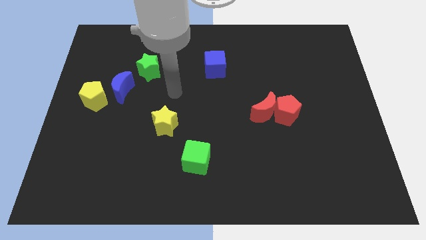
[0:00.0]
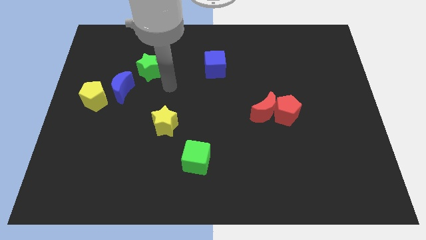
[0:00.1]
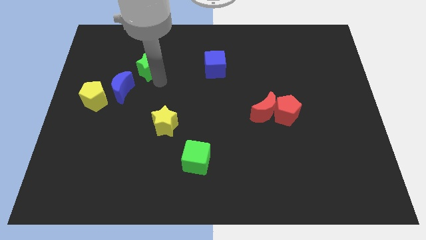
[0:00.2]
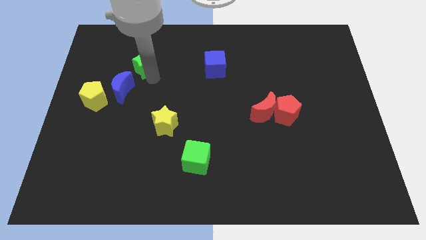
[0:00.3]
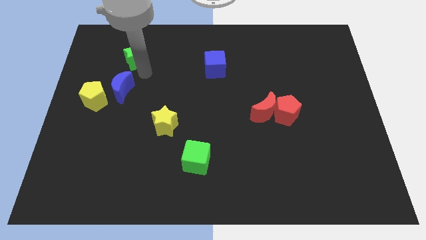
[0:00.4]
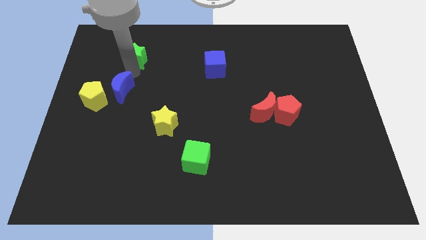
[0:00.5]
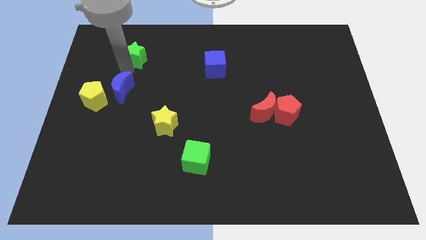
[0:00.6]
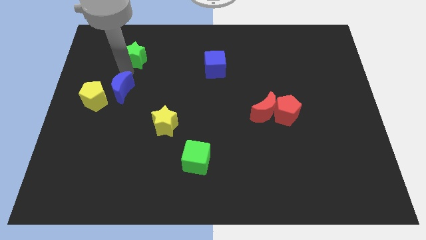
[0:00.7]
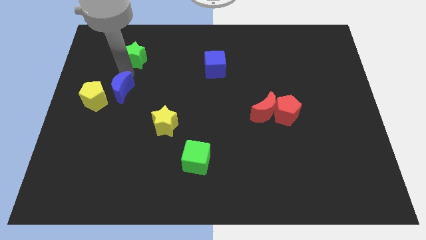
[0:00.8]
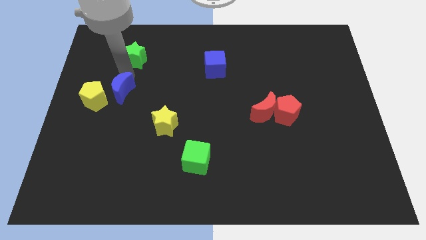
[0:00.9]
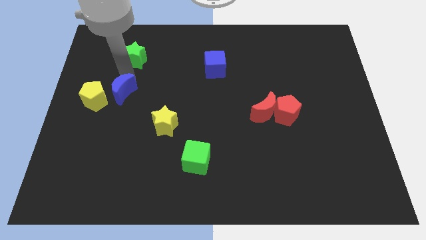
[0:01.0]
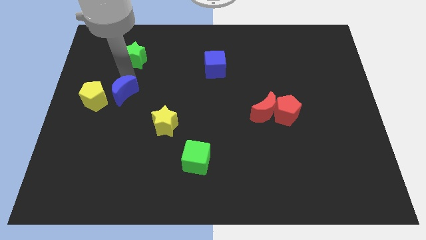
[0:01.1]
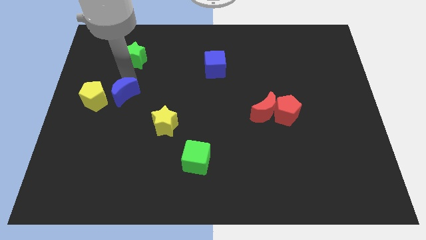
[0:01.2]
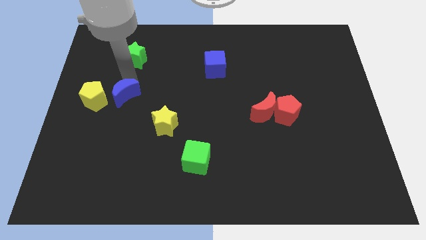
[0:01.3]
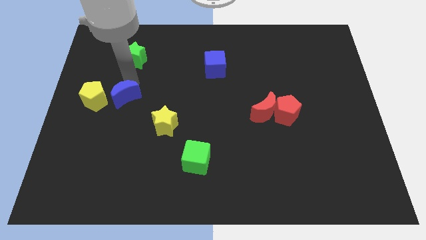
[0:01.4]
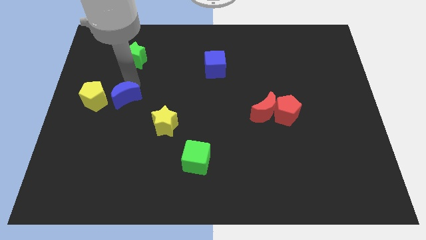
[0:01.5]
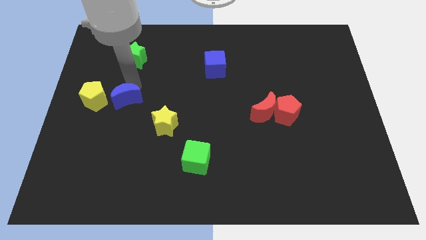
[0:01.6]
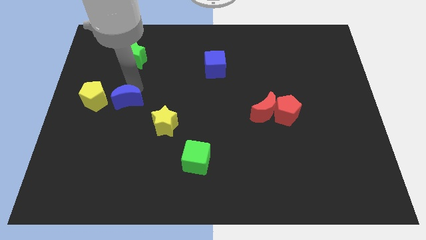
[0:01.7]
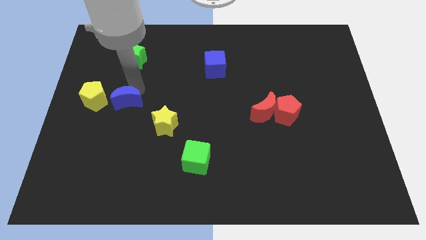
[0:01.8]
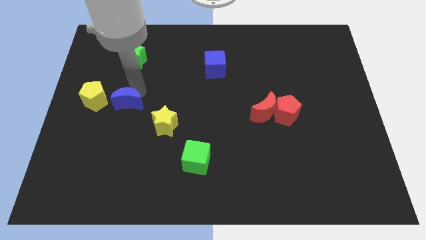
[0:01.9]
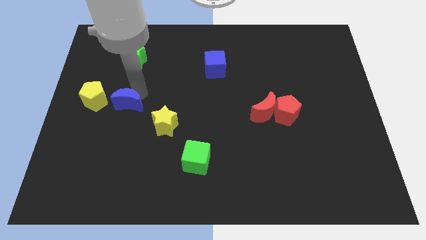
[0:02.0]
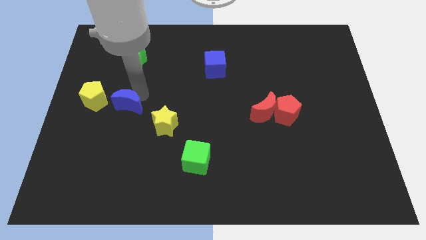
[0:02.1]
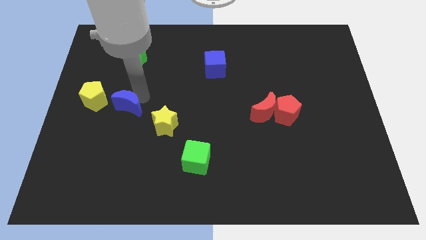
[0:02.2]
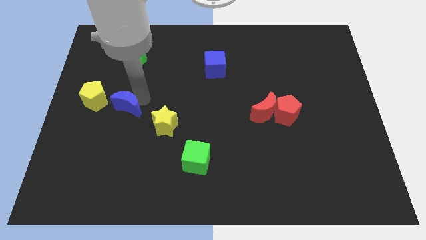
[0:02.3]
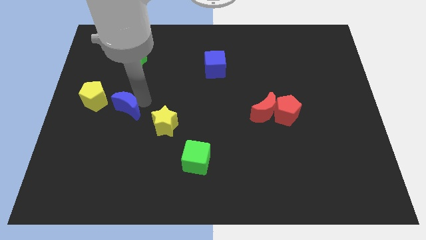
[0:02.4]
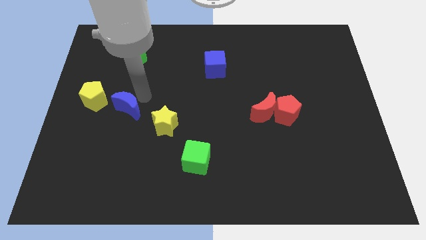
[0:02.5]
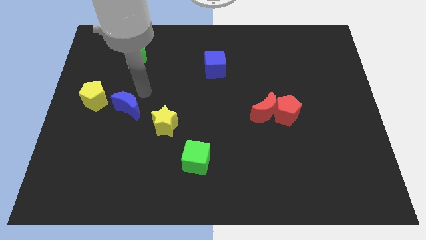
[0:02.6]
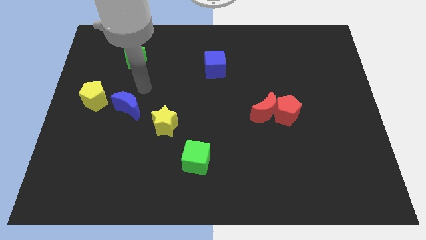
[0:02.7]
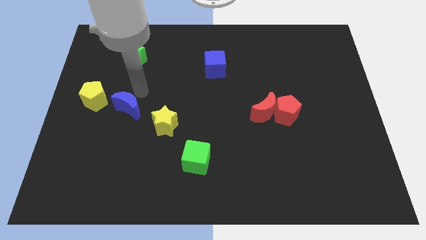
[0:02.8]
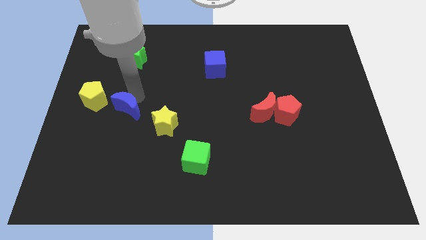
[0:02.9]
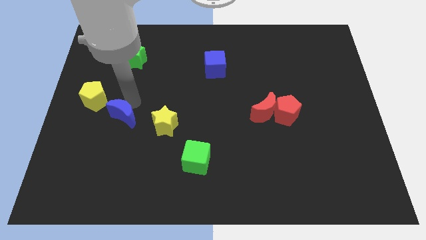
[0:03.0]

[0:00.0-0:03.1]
push the blue moon downwards a bit

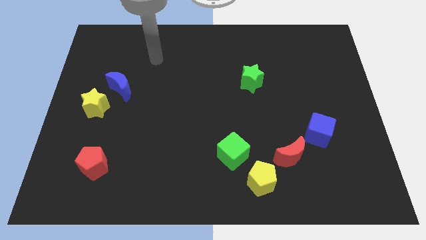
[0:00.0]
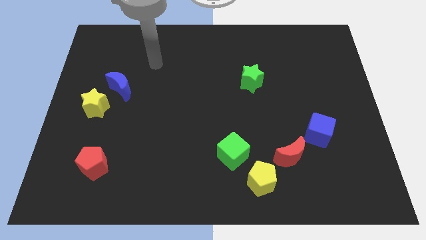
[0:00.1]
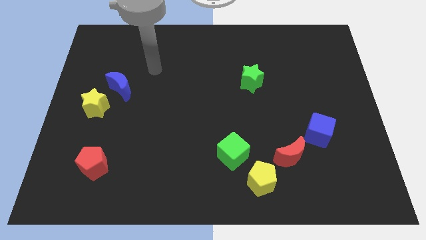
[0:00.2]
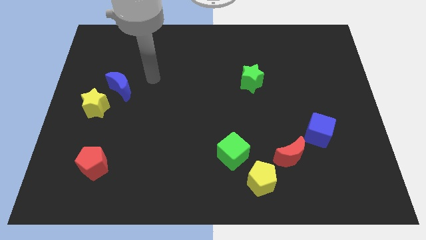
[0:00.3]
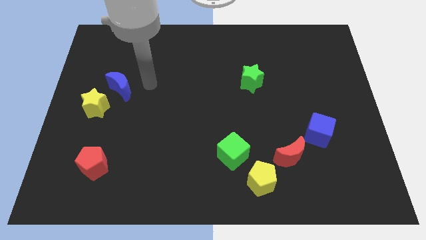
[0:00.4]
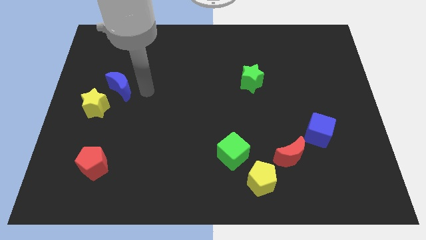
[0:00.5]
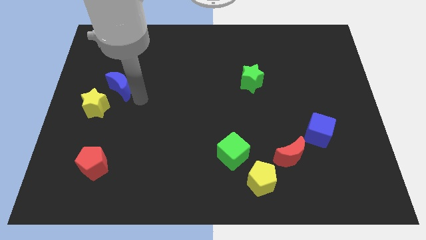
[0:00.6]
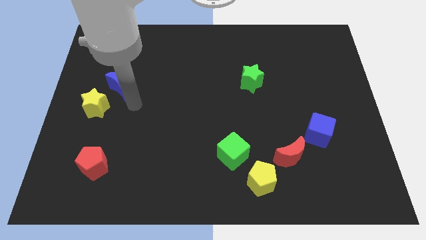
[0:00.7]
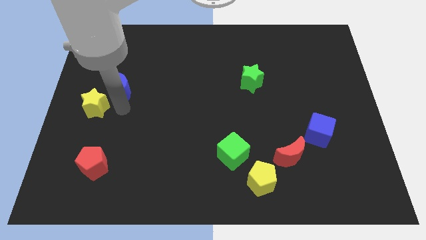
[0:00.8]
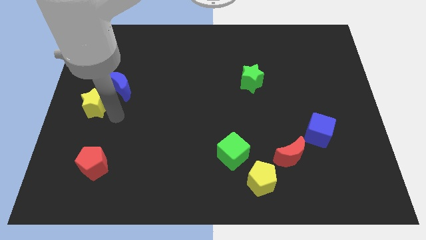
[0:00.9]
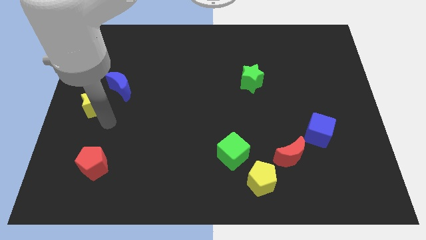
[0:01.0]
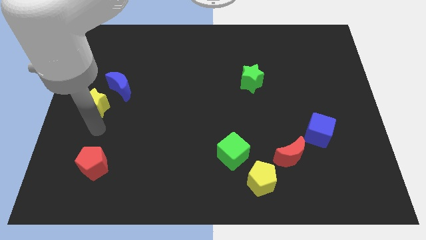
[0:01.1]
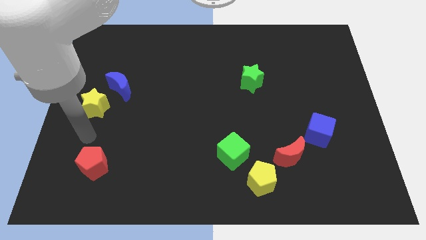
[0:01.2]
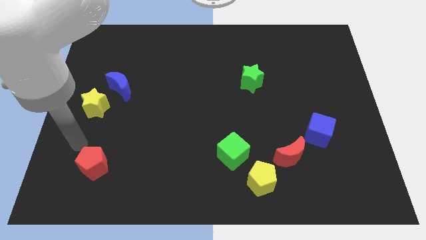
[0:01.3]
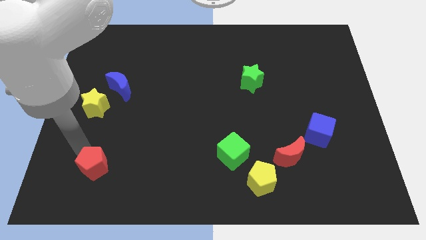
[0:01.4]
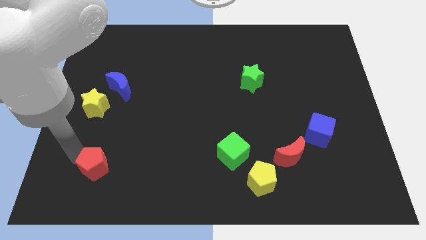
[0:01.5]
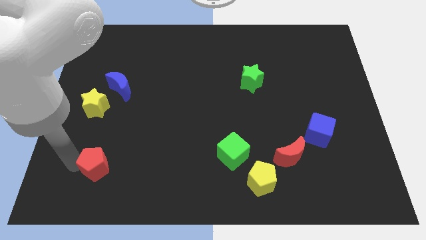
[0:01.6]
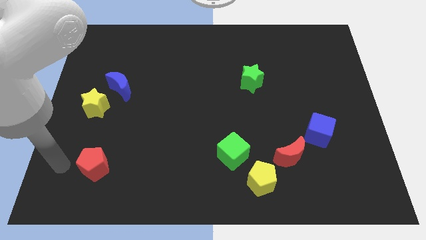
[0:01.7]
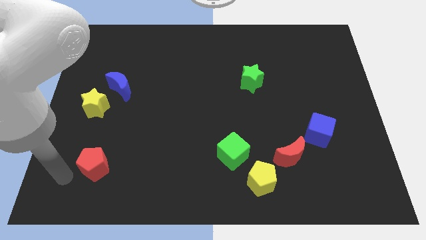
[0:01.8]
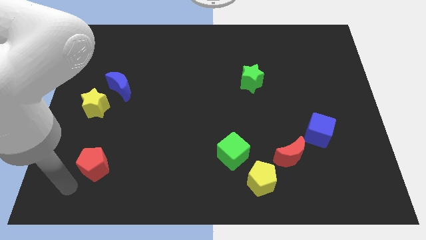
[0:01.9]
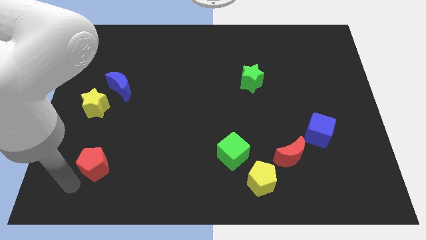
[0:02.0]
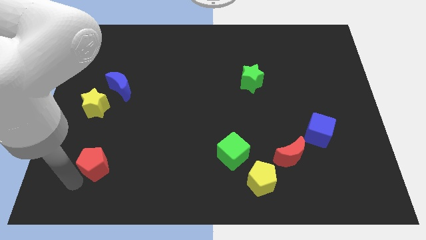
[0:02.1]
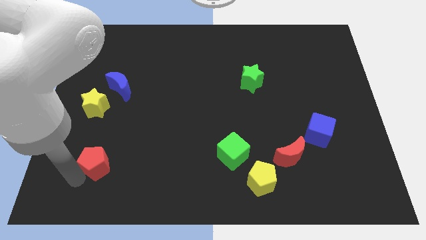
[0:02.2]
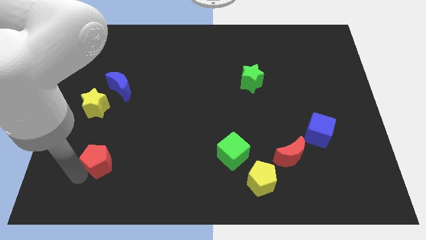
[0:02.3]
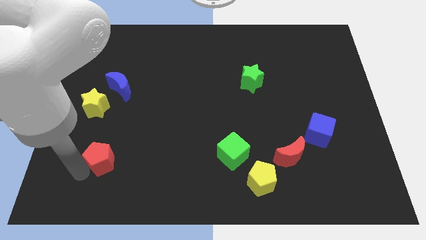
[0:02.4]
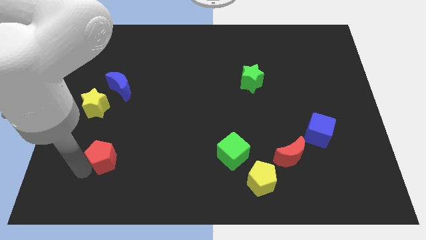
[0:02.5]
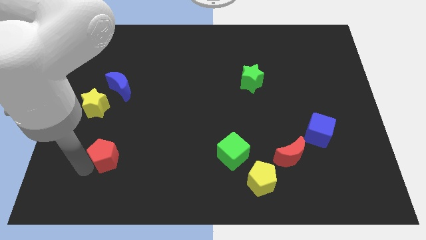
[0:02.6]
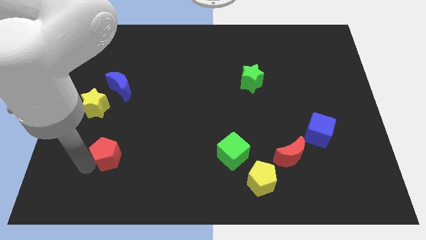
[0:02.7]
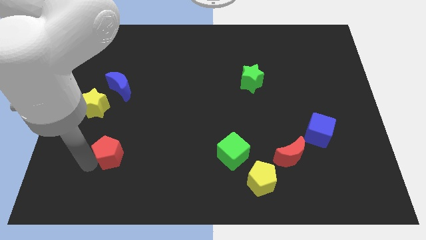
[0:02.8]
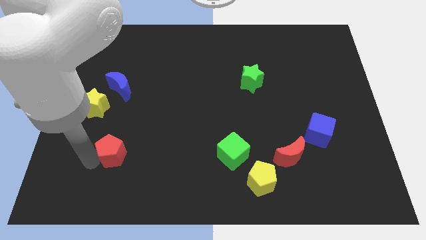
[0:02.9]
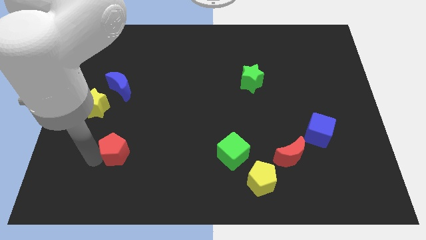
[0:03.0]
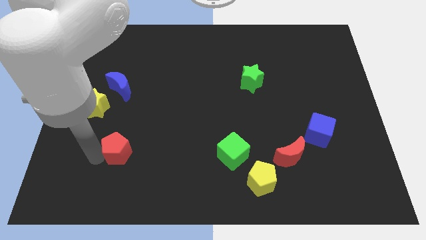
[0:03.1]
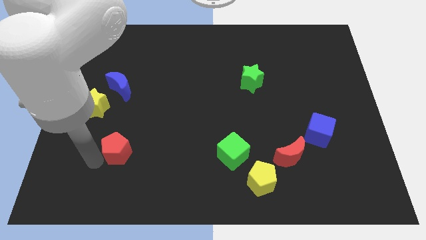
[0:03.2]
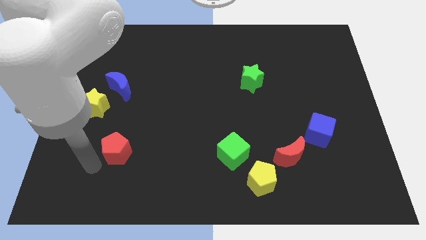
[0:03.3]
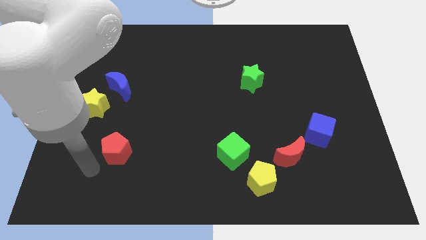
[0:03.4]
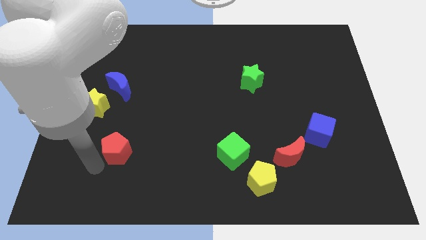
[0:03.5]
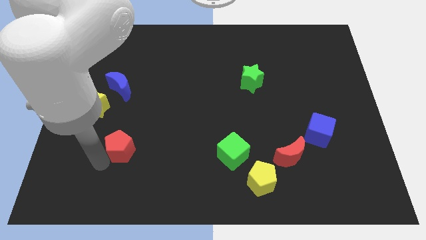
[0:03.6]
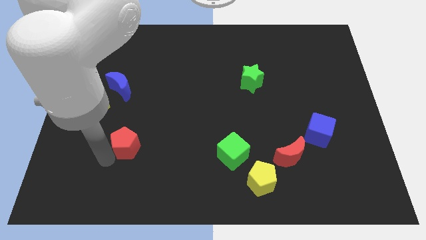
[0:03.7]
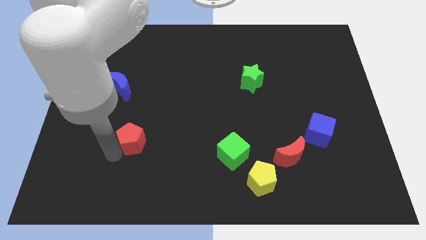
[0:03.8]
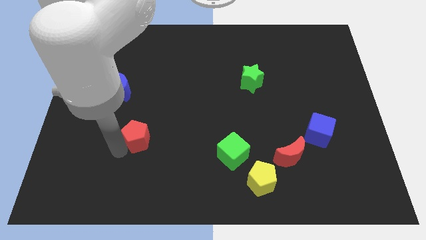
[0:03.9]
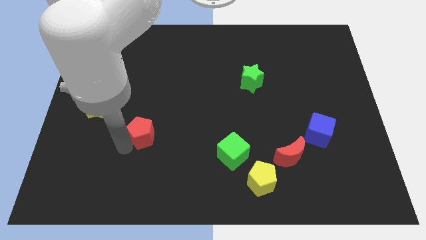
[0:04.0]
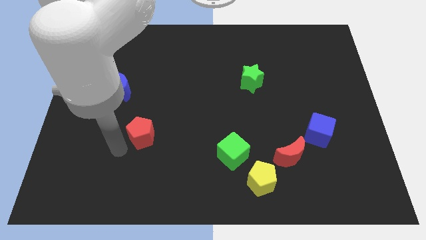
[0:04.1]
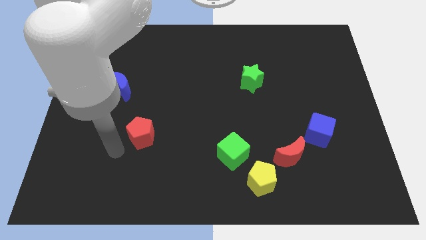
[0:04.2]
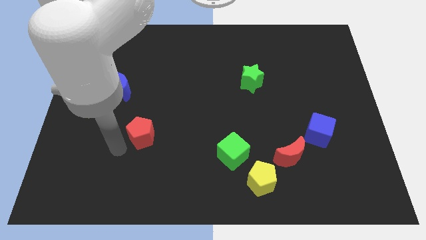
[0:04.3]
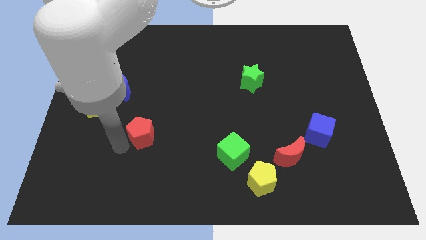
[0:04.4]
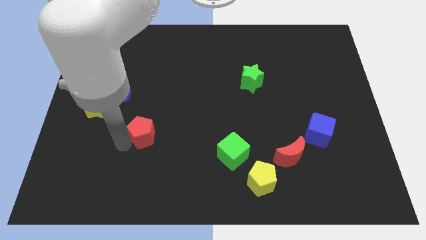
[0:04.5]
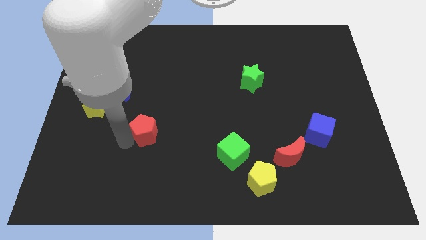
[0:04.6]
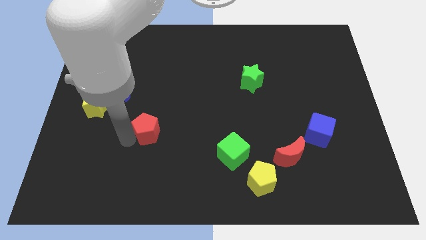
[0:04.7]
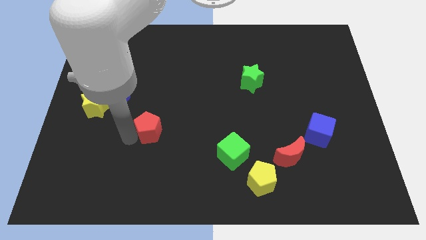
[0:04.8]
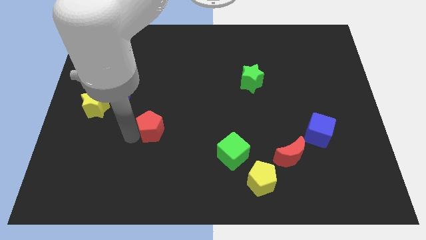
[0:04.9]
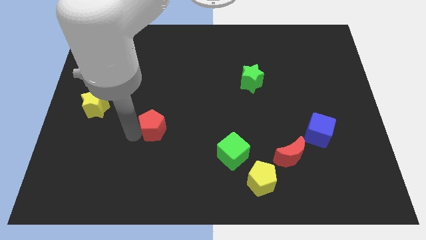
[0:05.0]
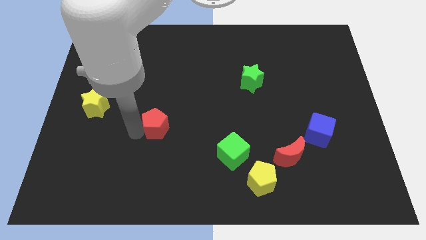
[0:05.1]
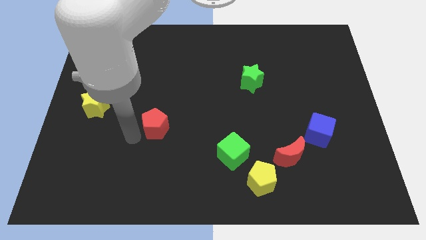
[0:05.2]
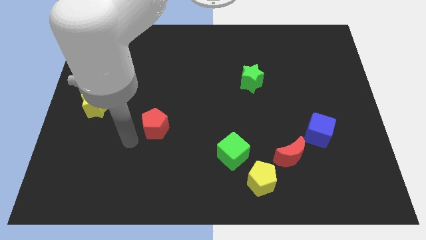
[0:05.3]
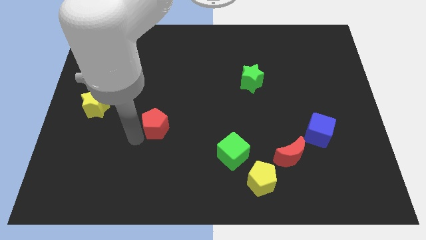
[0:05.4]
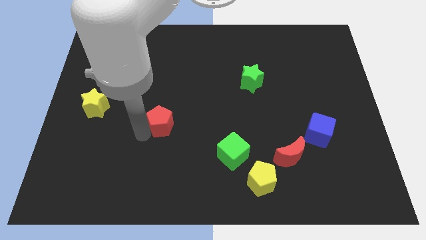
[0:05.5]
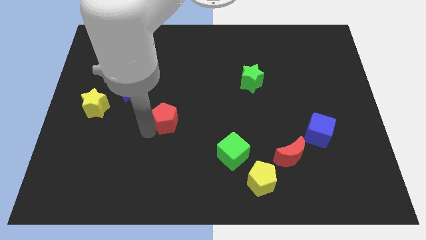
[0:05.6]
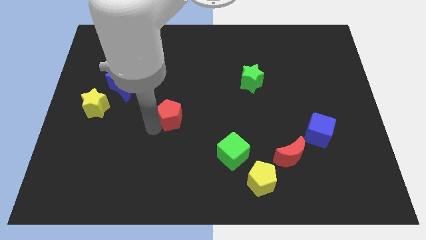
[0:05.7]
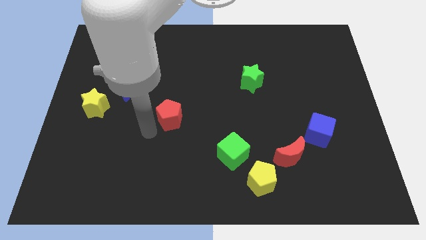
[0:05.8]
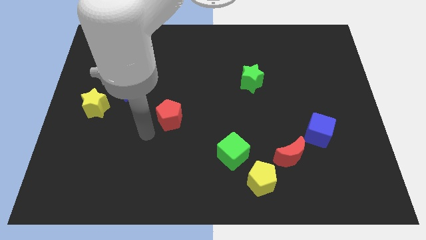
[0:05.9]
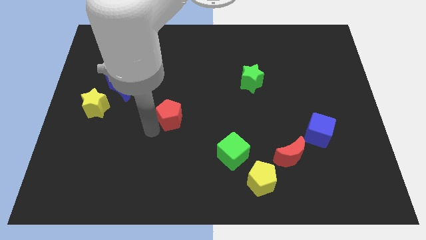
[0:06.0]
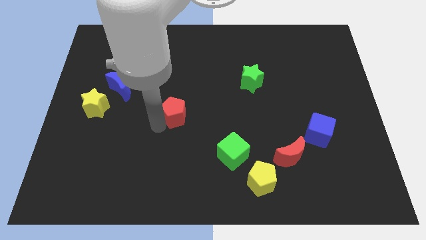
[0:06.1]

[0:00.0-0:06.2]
push the red pentagon up and to the right
